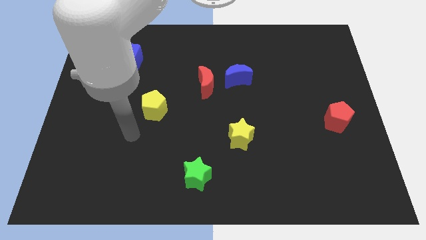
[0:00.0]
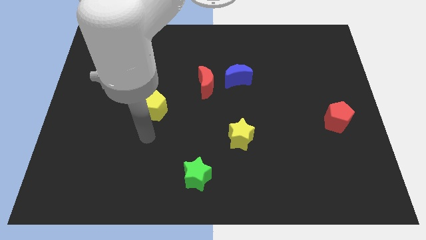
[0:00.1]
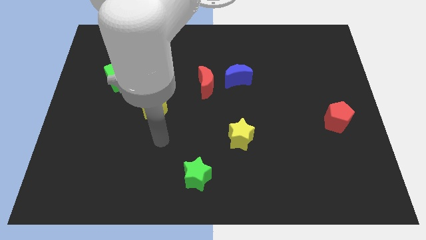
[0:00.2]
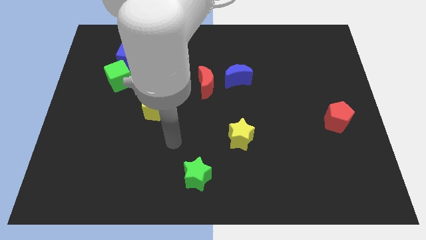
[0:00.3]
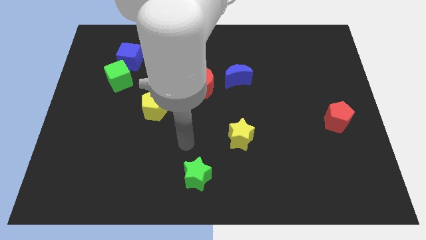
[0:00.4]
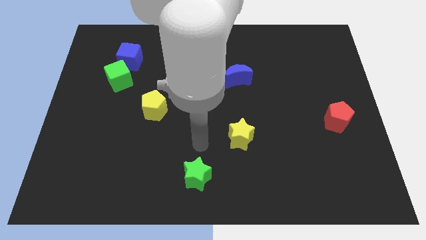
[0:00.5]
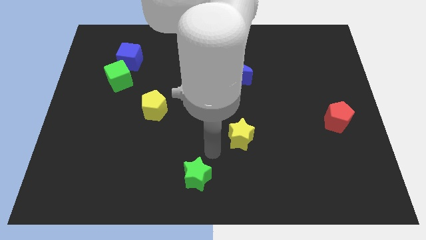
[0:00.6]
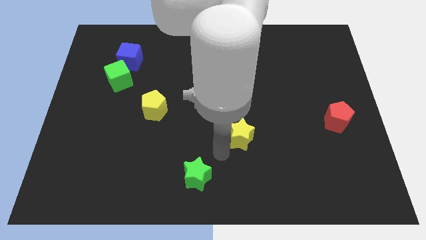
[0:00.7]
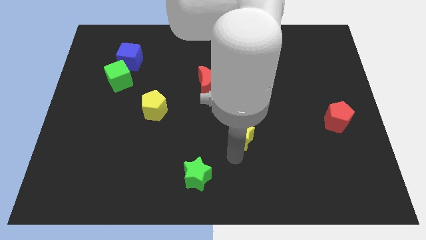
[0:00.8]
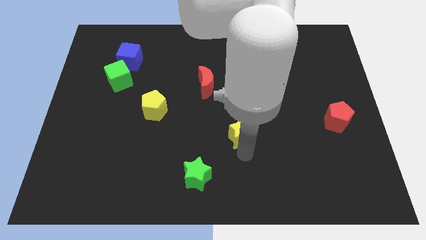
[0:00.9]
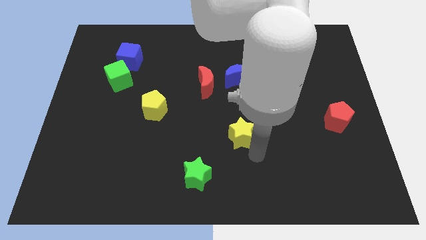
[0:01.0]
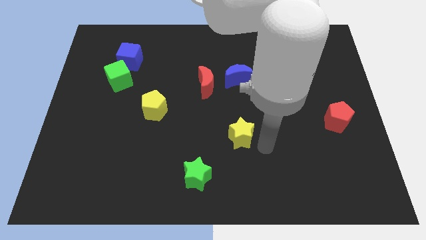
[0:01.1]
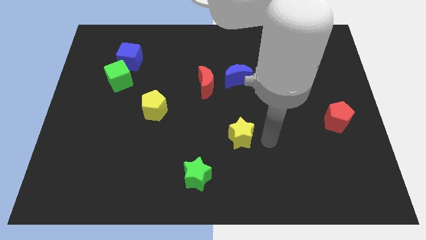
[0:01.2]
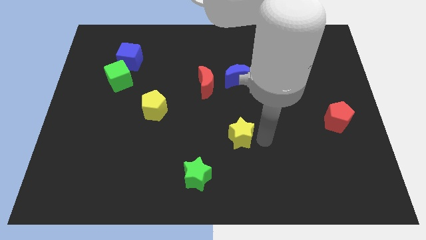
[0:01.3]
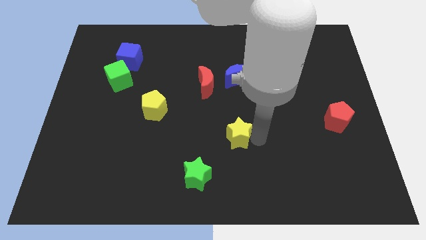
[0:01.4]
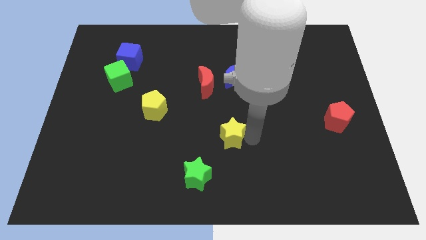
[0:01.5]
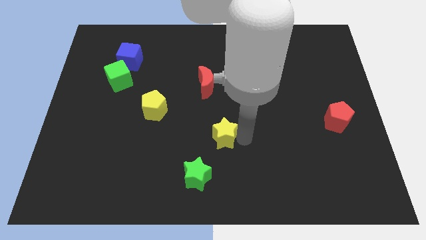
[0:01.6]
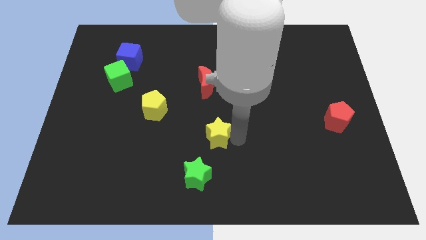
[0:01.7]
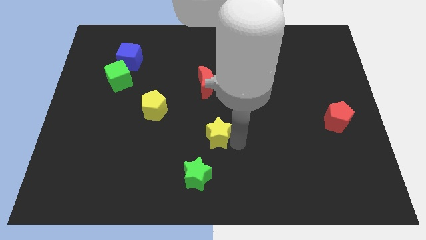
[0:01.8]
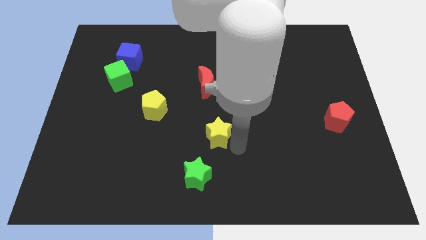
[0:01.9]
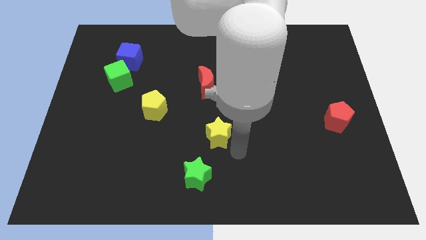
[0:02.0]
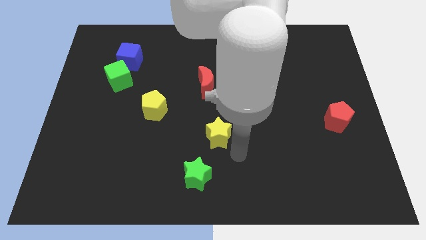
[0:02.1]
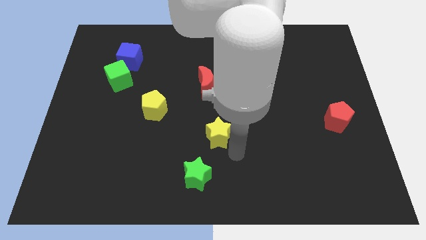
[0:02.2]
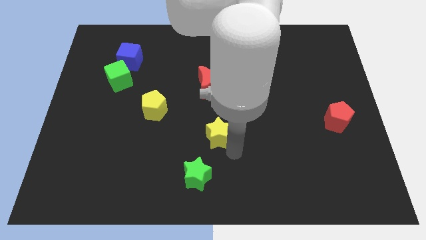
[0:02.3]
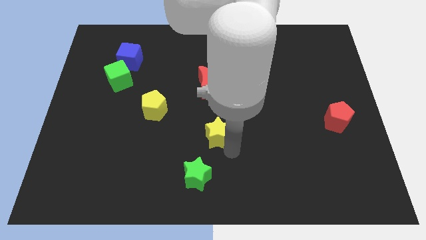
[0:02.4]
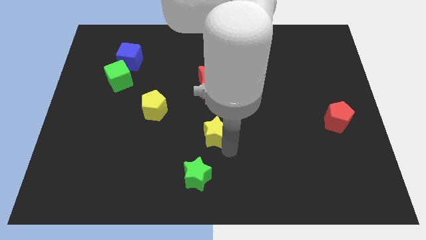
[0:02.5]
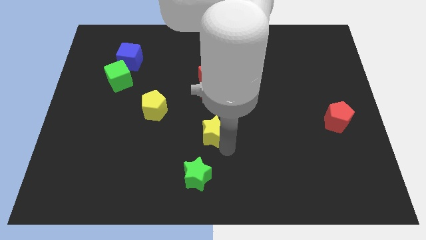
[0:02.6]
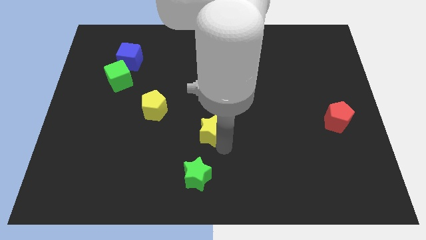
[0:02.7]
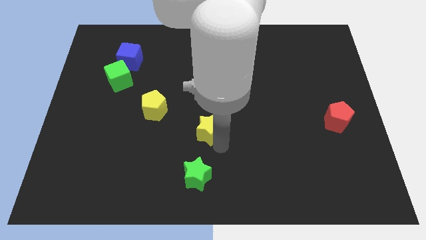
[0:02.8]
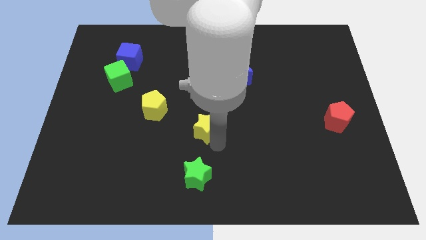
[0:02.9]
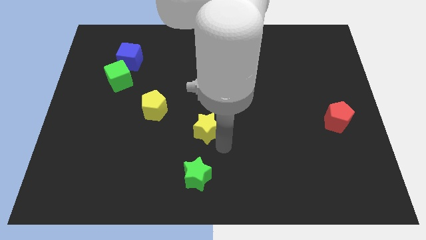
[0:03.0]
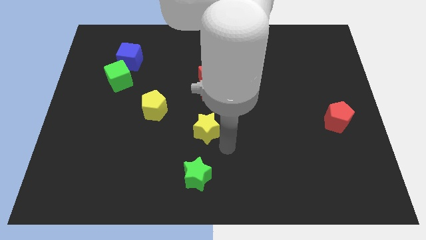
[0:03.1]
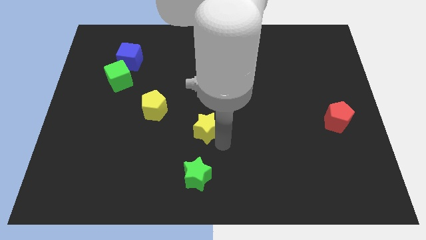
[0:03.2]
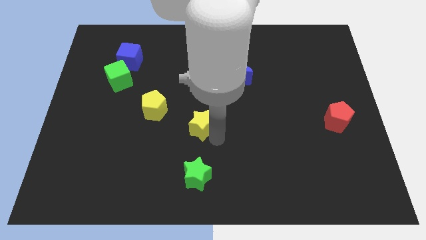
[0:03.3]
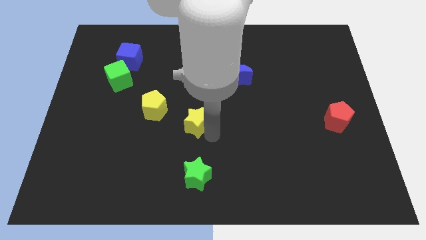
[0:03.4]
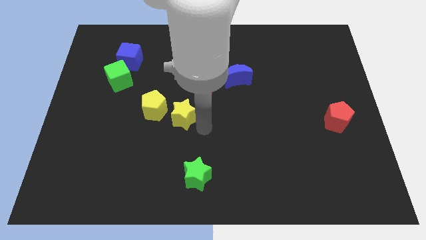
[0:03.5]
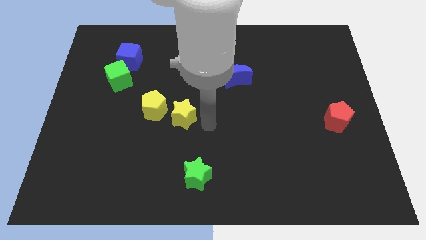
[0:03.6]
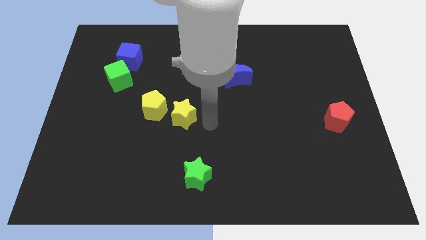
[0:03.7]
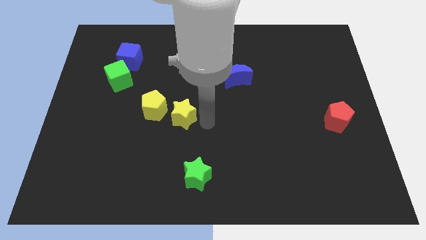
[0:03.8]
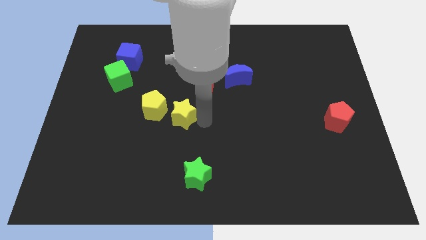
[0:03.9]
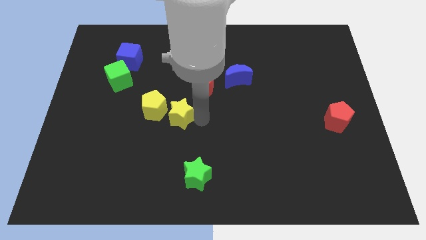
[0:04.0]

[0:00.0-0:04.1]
push the yellow star towards the yellow pentagon

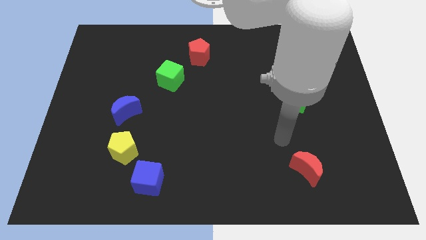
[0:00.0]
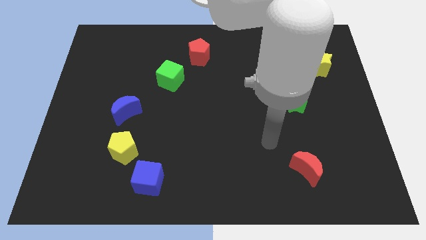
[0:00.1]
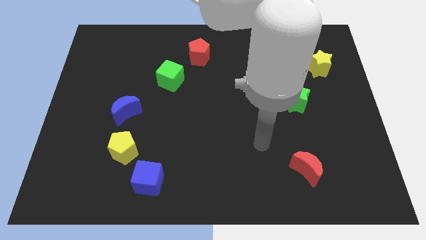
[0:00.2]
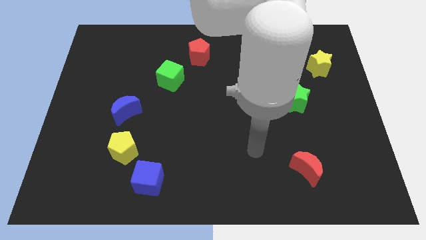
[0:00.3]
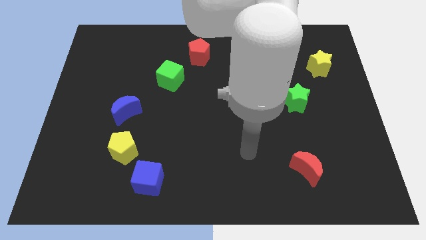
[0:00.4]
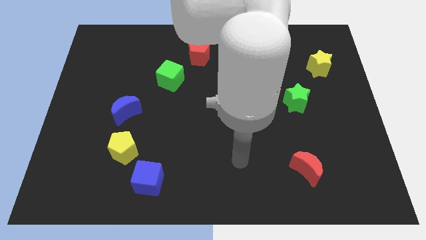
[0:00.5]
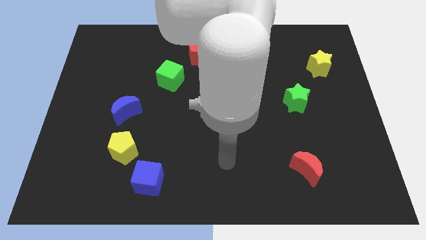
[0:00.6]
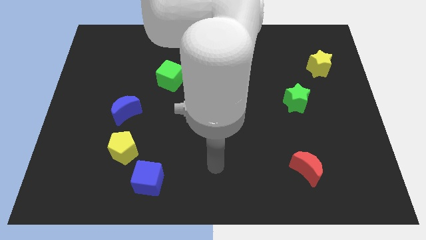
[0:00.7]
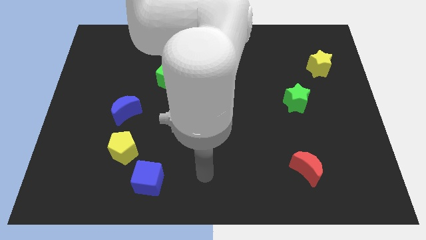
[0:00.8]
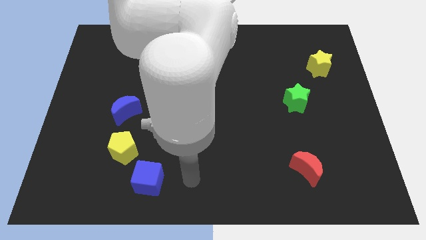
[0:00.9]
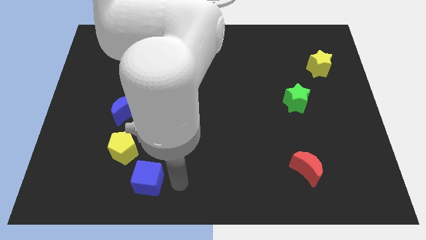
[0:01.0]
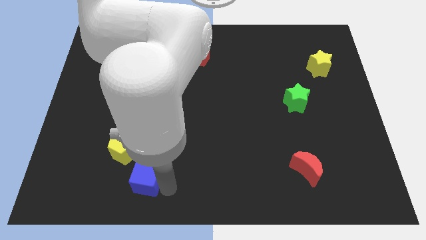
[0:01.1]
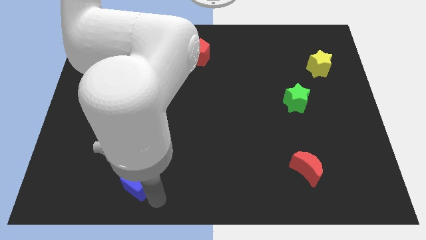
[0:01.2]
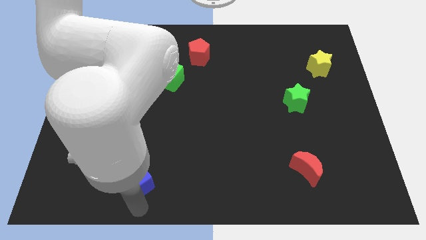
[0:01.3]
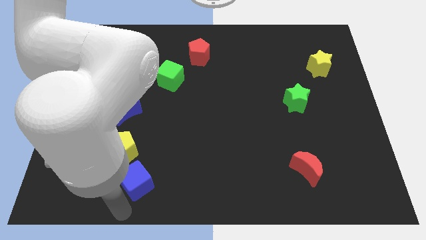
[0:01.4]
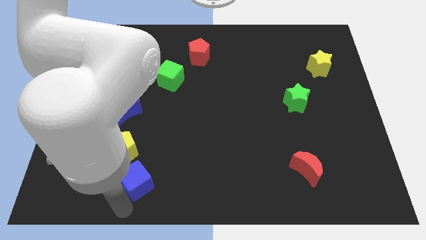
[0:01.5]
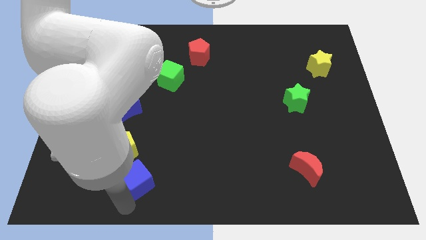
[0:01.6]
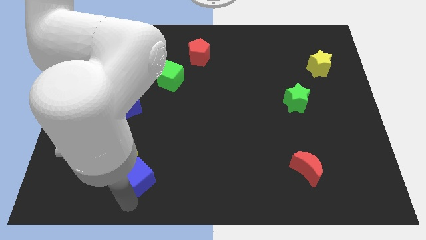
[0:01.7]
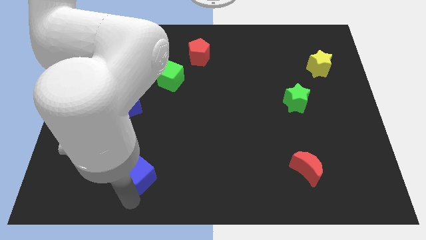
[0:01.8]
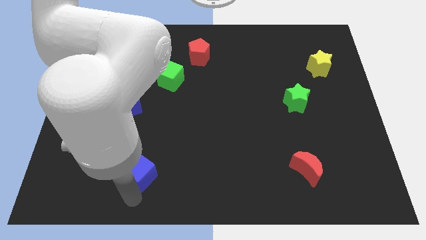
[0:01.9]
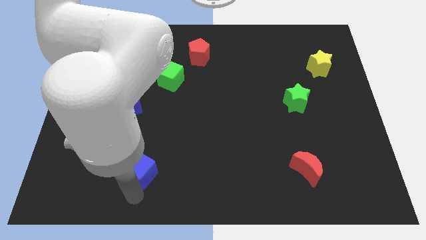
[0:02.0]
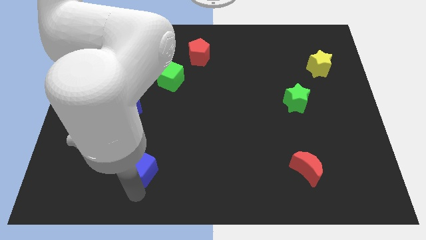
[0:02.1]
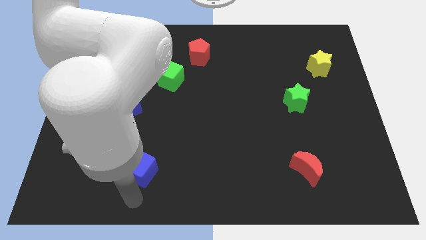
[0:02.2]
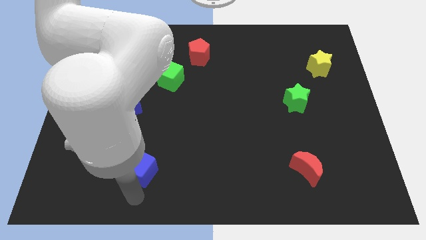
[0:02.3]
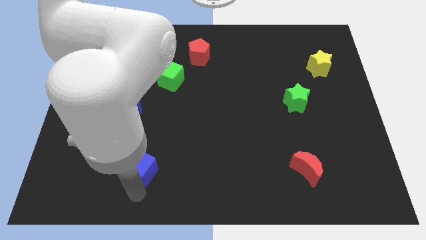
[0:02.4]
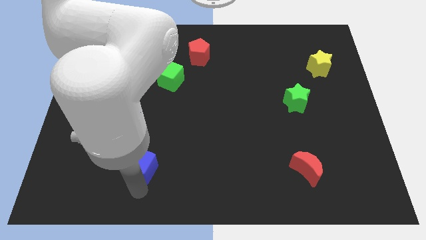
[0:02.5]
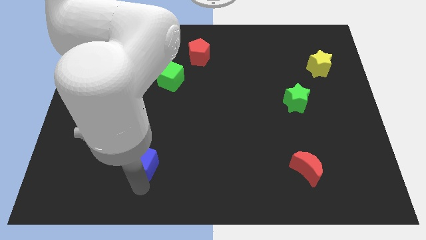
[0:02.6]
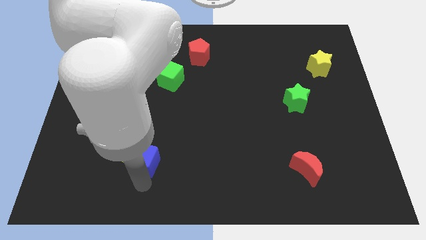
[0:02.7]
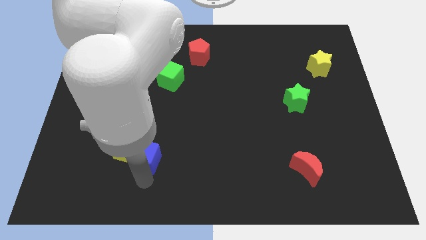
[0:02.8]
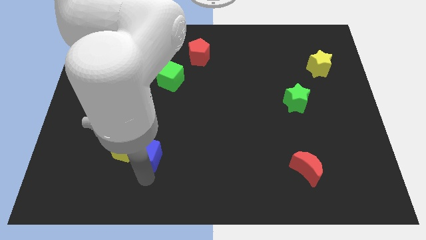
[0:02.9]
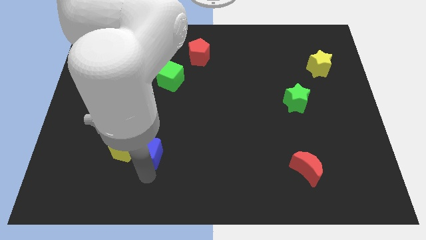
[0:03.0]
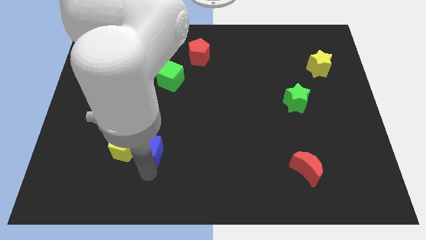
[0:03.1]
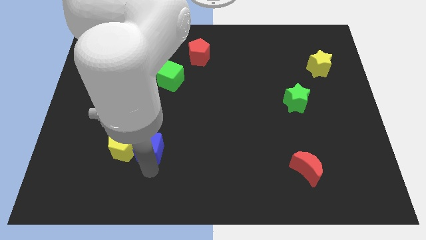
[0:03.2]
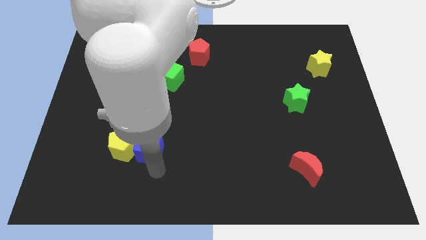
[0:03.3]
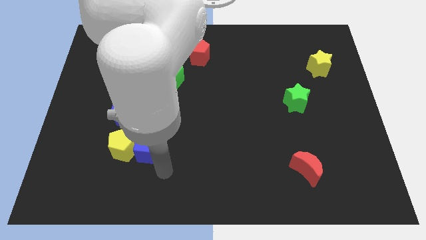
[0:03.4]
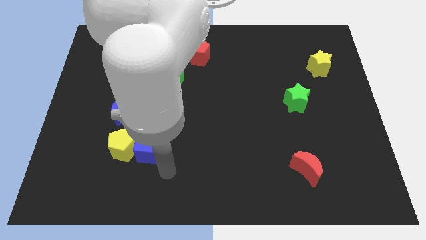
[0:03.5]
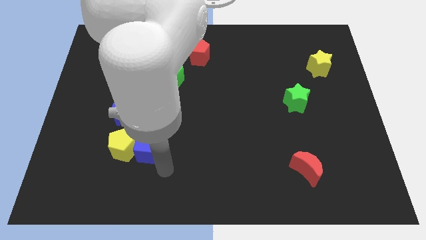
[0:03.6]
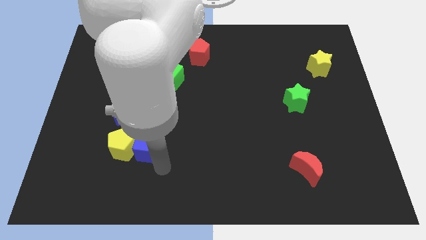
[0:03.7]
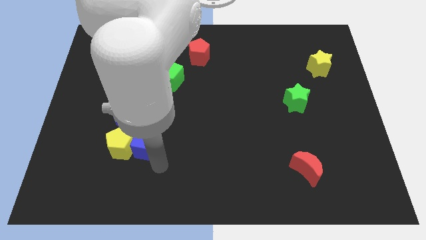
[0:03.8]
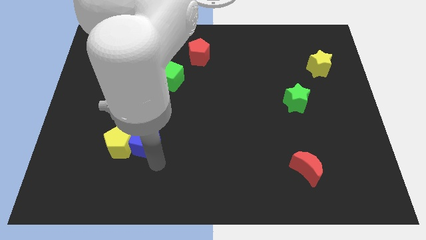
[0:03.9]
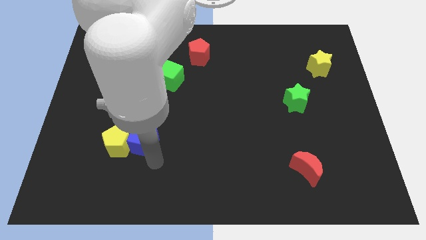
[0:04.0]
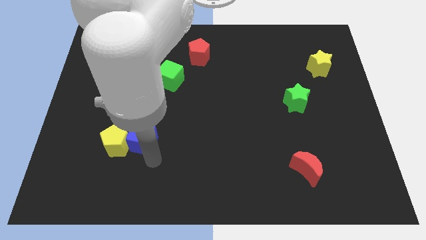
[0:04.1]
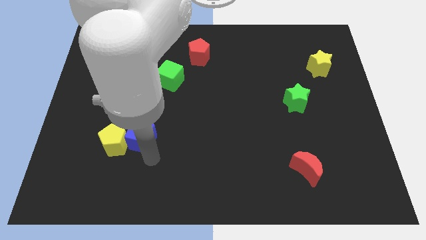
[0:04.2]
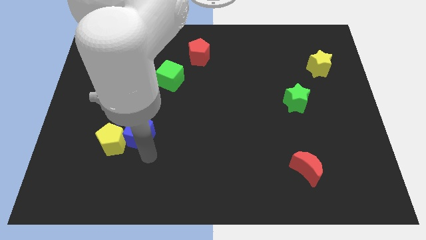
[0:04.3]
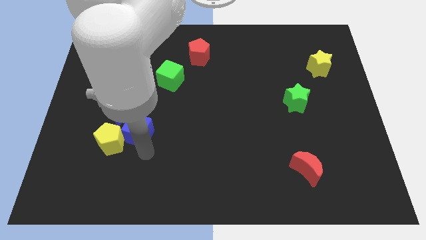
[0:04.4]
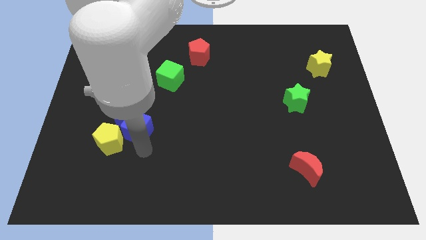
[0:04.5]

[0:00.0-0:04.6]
push the blue cube close to the blue moon
